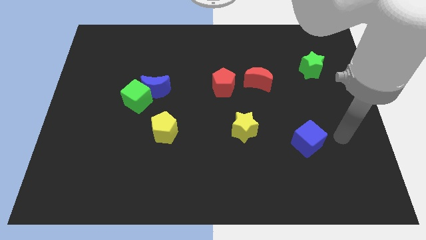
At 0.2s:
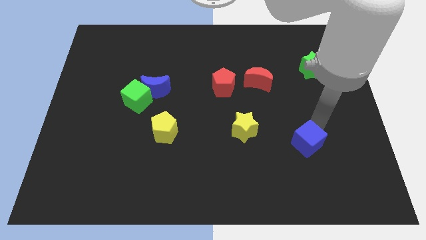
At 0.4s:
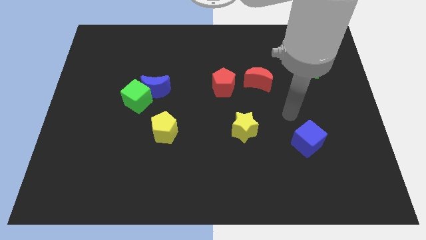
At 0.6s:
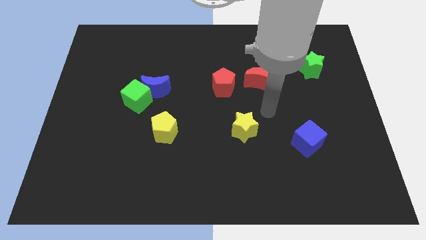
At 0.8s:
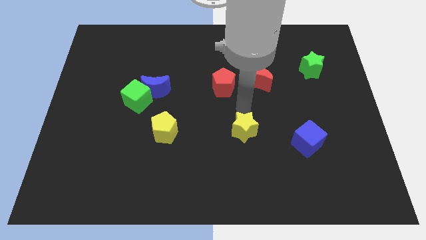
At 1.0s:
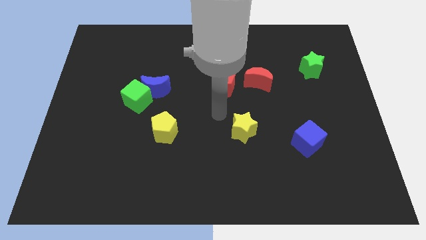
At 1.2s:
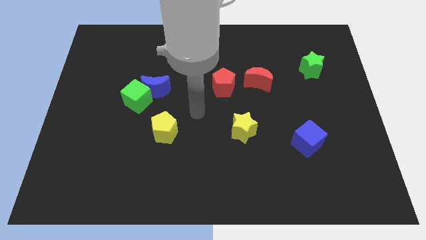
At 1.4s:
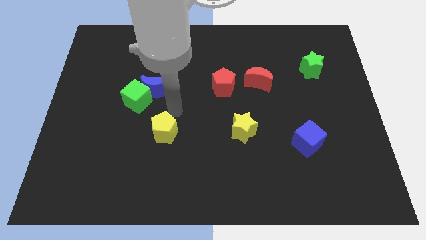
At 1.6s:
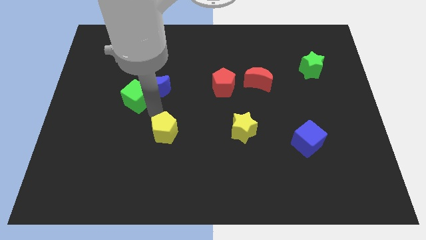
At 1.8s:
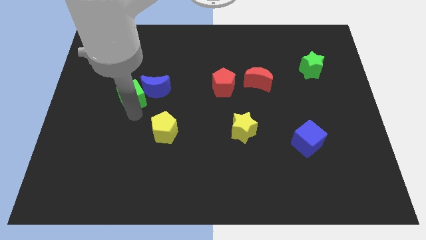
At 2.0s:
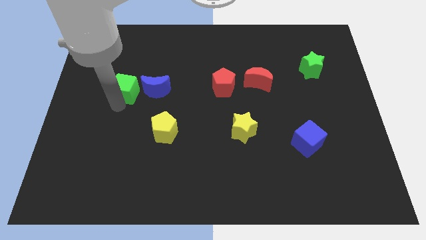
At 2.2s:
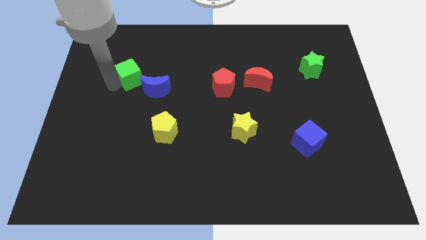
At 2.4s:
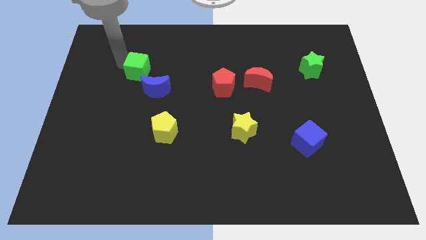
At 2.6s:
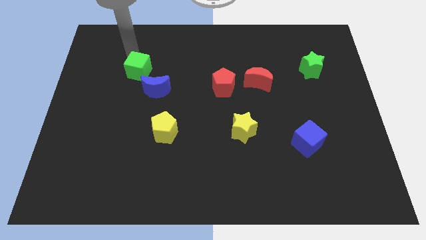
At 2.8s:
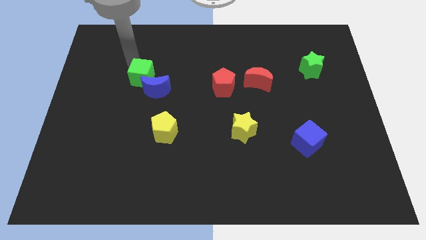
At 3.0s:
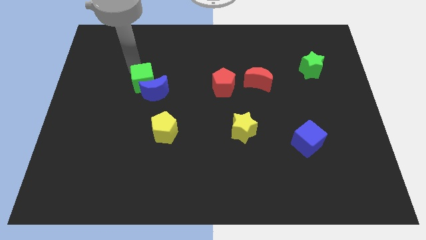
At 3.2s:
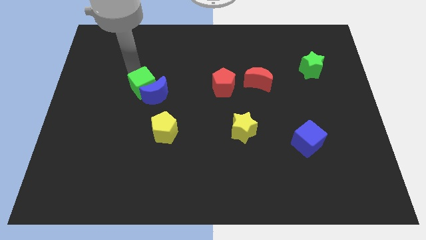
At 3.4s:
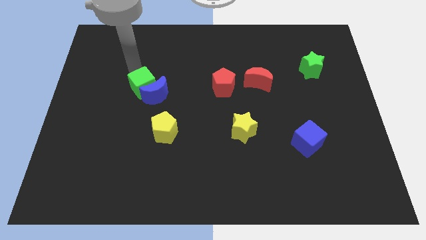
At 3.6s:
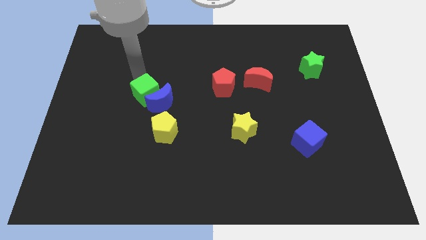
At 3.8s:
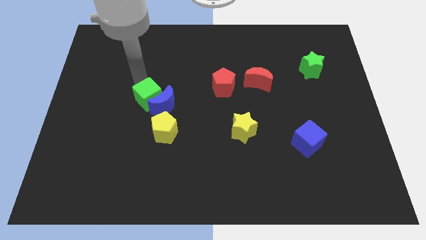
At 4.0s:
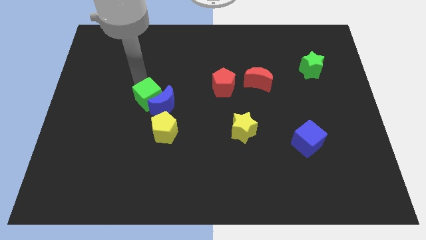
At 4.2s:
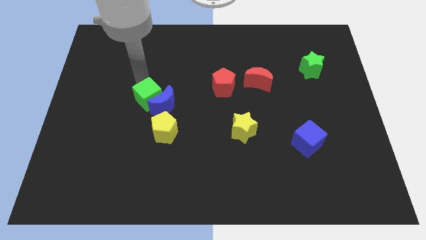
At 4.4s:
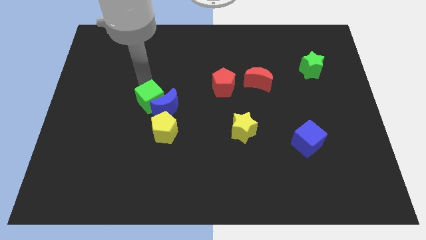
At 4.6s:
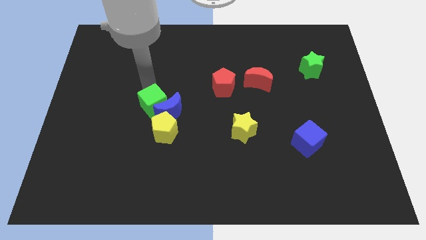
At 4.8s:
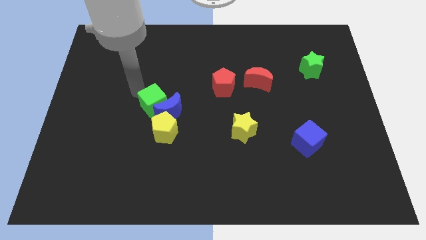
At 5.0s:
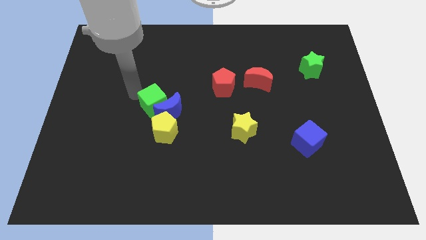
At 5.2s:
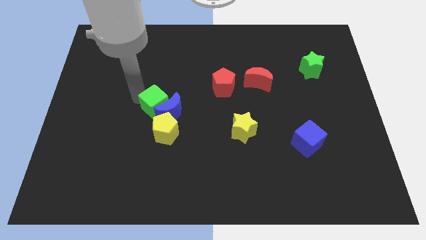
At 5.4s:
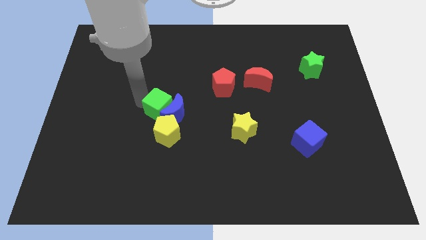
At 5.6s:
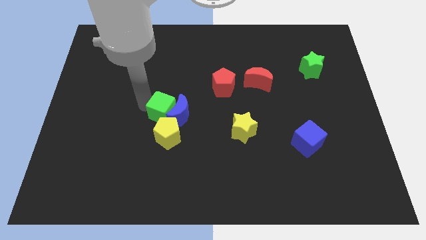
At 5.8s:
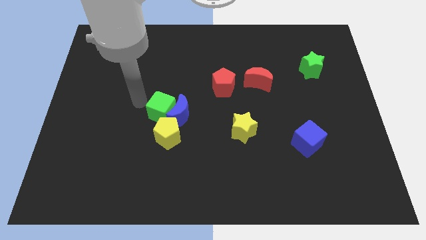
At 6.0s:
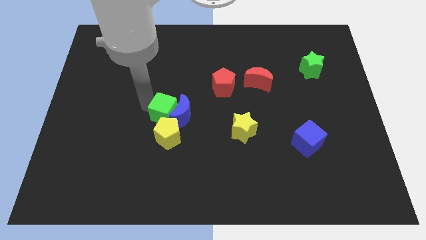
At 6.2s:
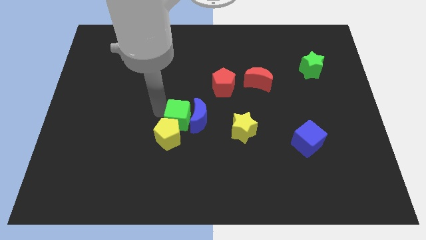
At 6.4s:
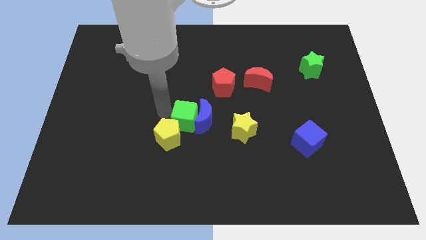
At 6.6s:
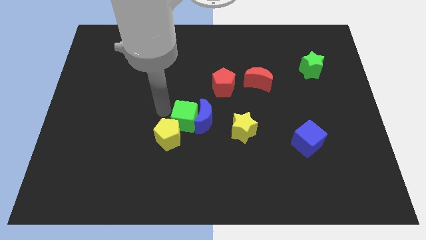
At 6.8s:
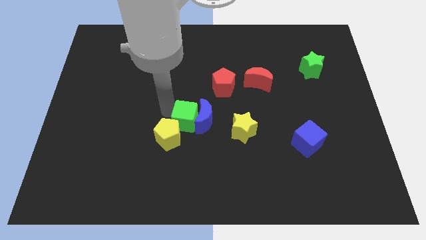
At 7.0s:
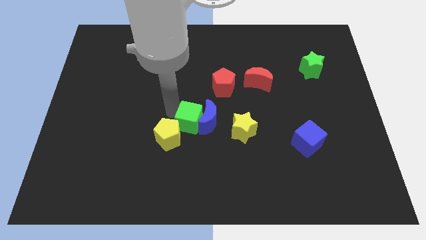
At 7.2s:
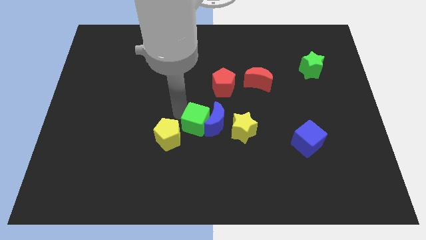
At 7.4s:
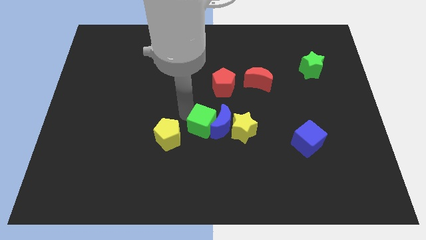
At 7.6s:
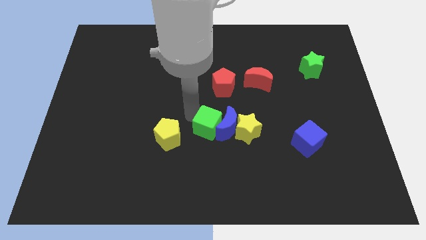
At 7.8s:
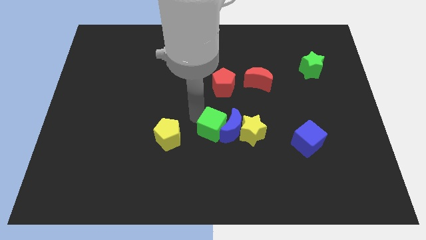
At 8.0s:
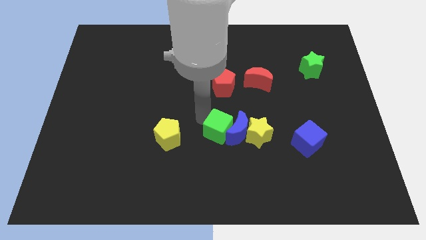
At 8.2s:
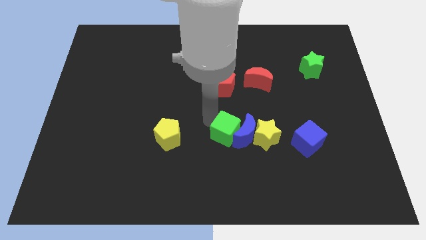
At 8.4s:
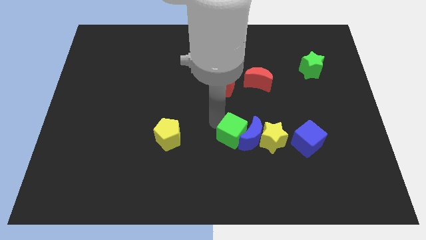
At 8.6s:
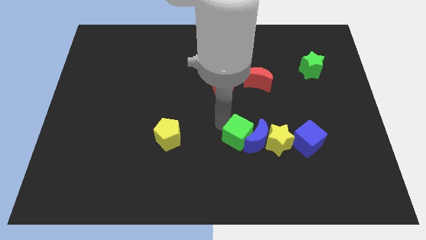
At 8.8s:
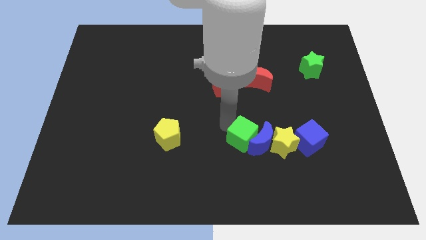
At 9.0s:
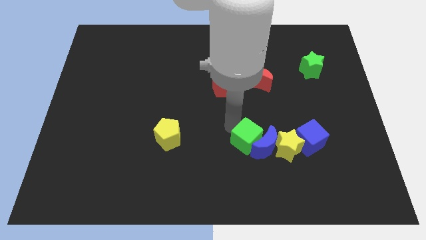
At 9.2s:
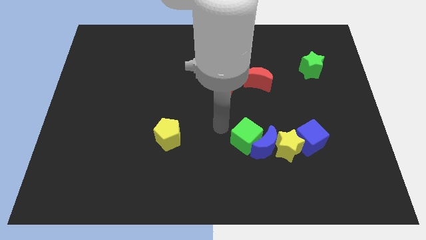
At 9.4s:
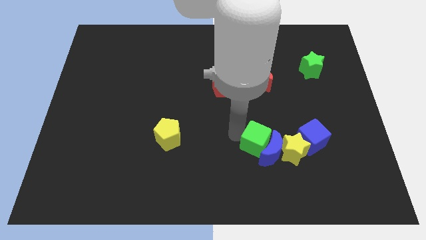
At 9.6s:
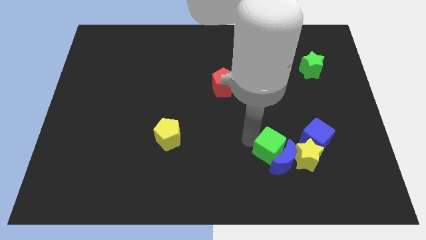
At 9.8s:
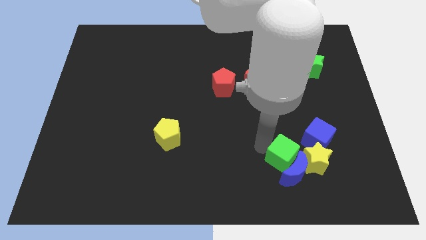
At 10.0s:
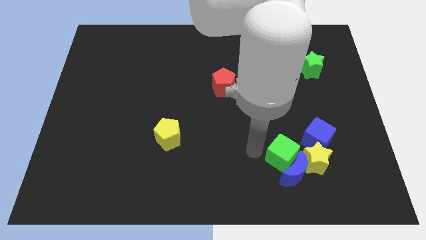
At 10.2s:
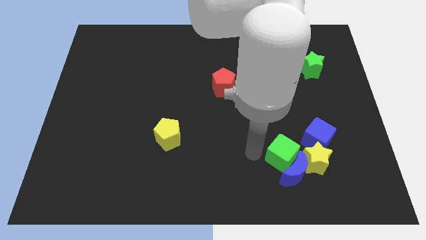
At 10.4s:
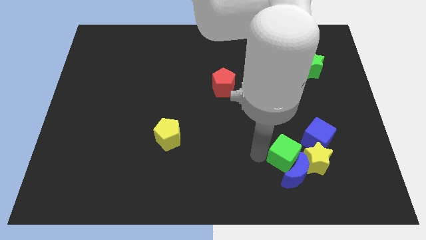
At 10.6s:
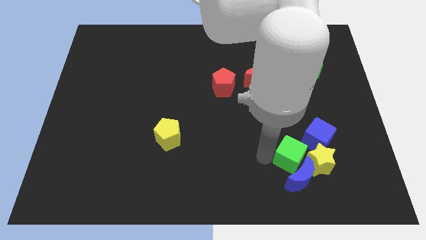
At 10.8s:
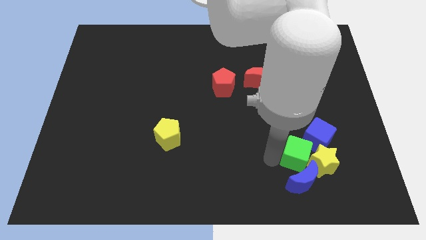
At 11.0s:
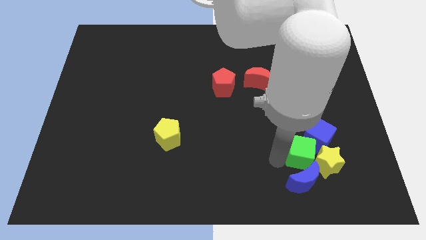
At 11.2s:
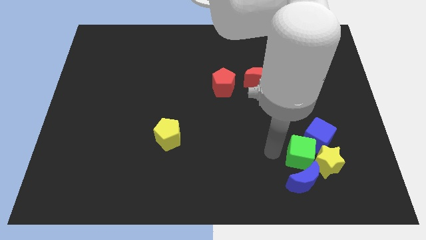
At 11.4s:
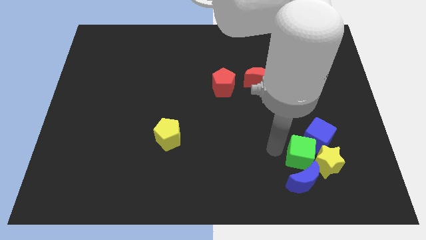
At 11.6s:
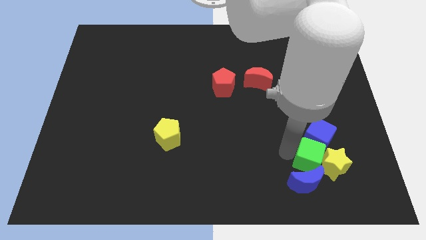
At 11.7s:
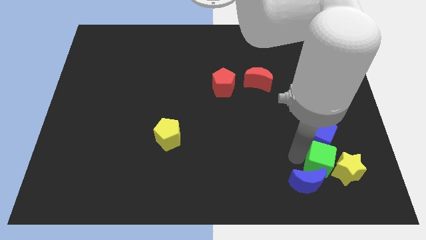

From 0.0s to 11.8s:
move the green cube to the bottom right side of the blue cube

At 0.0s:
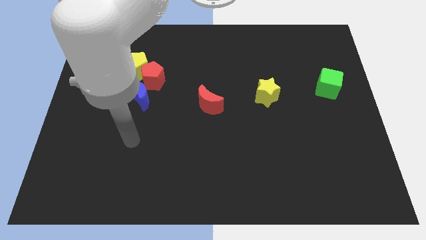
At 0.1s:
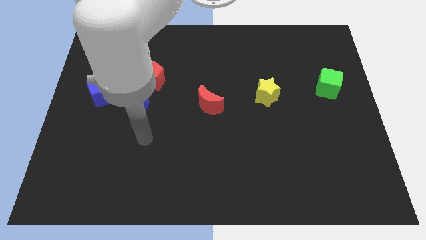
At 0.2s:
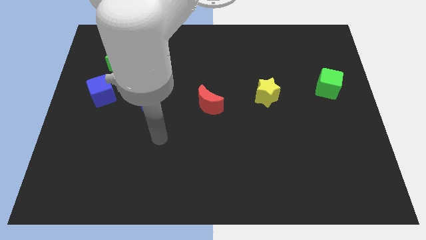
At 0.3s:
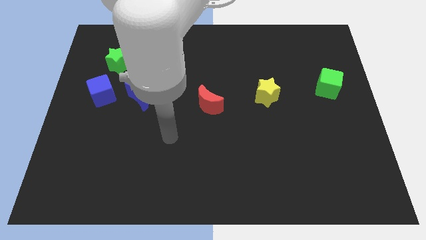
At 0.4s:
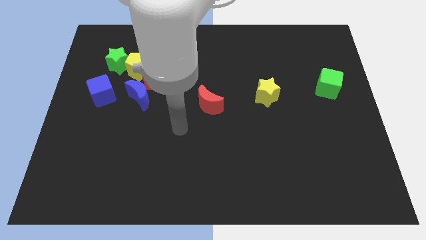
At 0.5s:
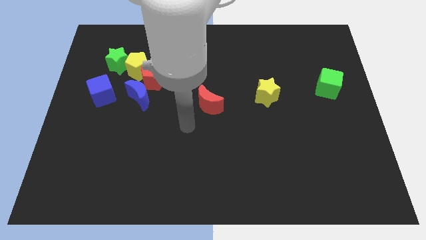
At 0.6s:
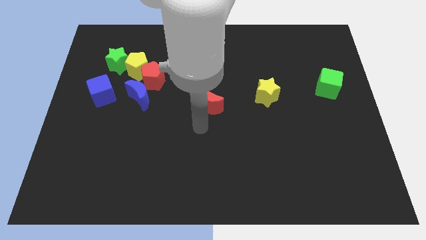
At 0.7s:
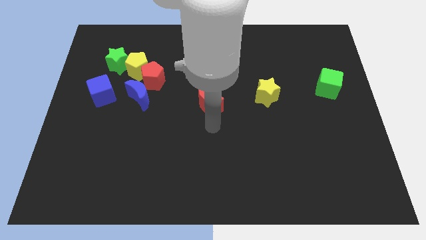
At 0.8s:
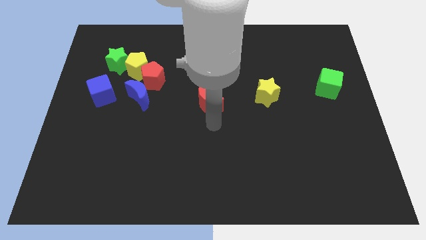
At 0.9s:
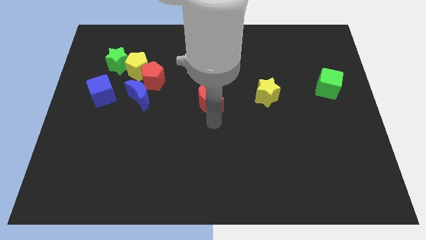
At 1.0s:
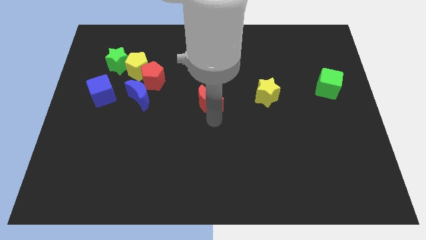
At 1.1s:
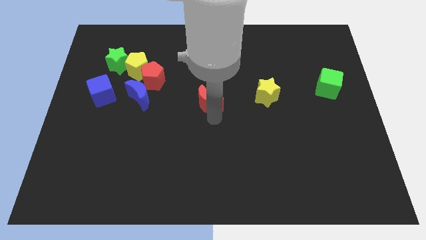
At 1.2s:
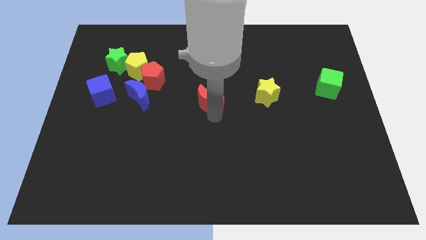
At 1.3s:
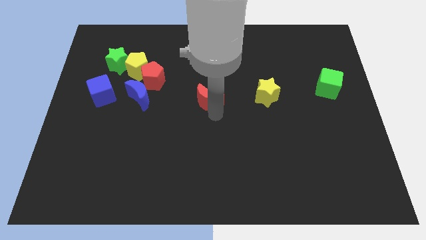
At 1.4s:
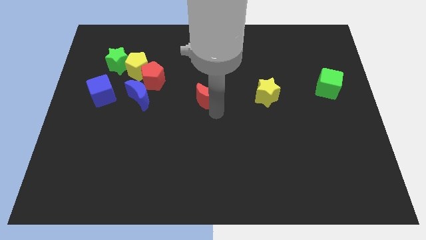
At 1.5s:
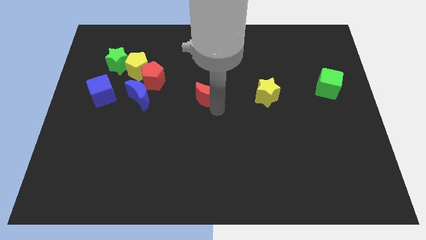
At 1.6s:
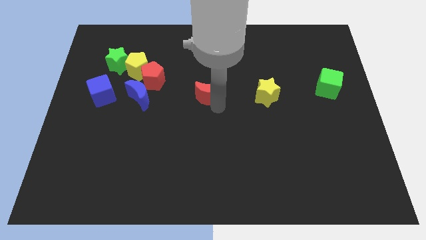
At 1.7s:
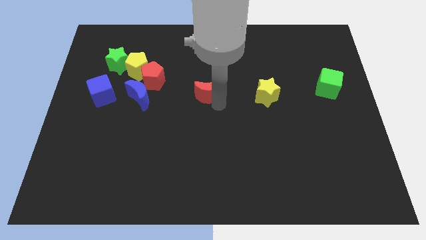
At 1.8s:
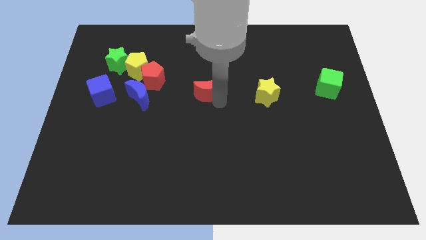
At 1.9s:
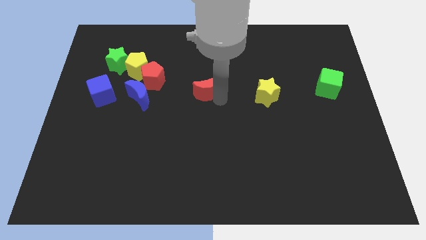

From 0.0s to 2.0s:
push the red moon right of the red pentagon
